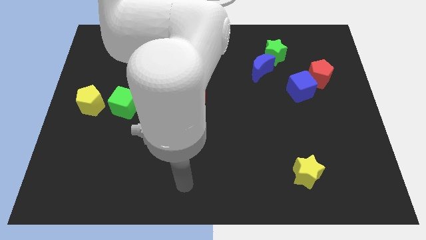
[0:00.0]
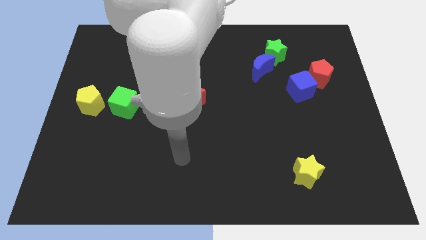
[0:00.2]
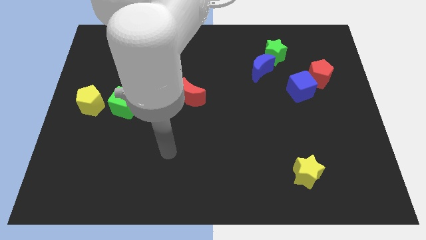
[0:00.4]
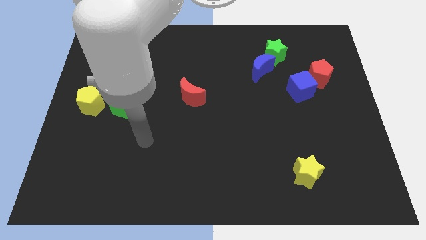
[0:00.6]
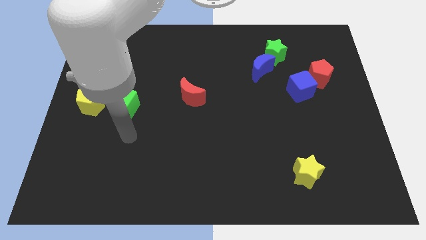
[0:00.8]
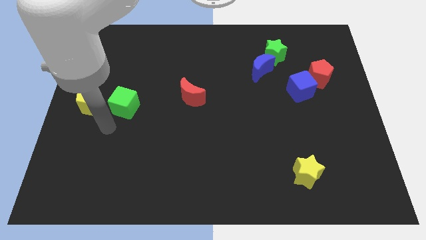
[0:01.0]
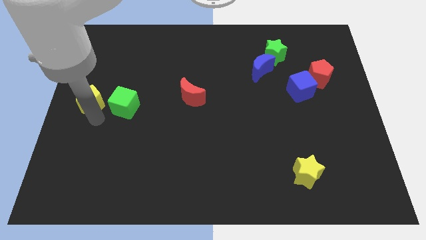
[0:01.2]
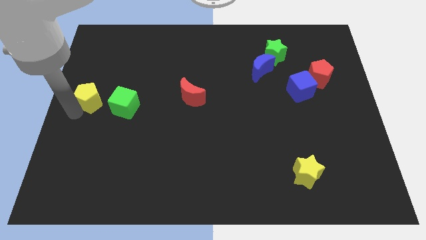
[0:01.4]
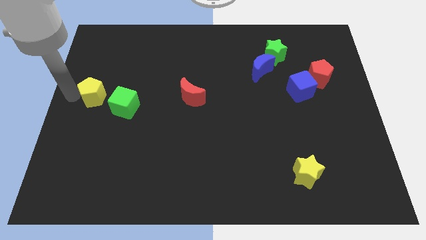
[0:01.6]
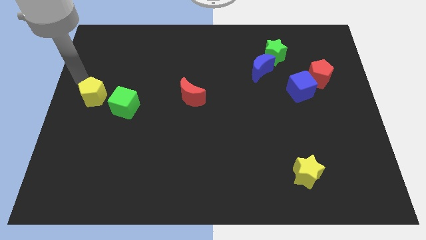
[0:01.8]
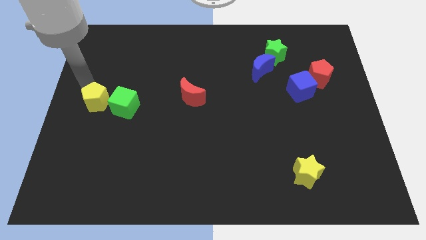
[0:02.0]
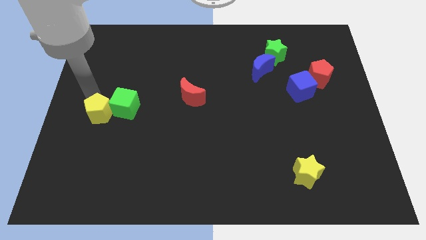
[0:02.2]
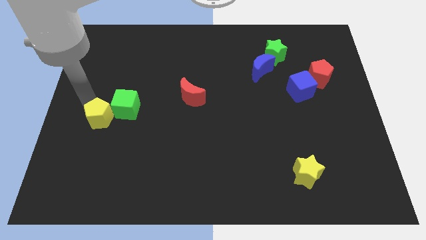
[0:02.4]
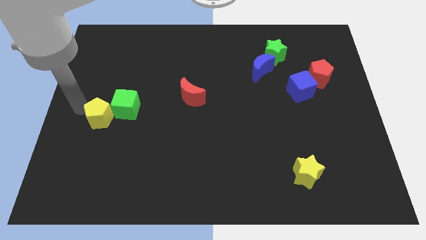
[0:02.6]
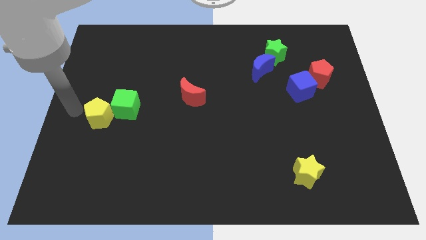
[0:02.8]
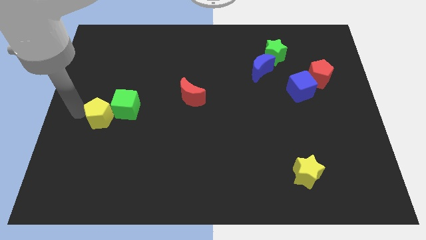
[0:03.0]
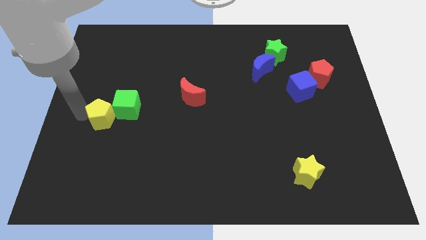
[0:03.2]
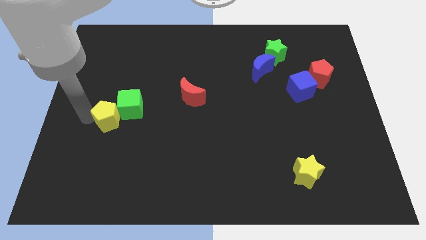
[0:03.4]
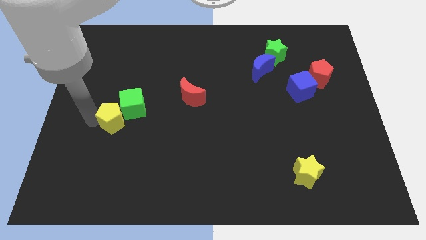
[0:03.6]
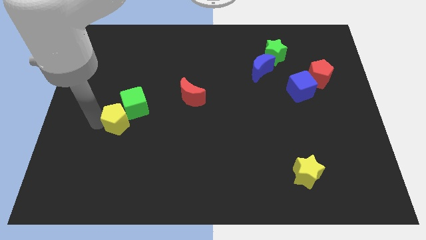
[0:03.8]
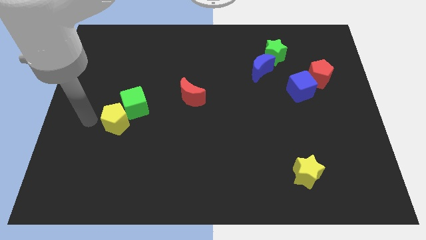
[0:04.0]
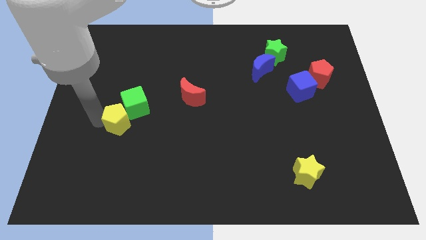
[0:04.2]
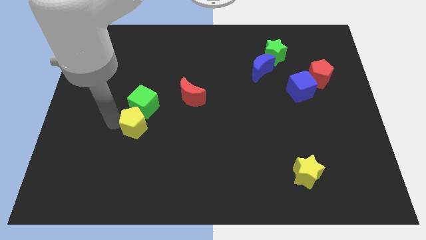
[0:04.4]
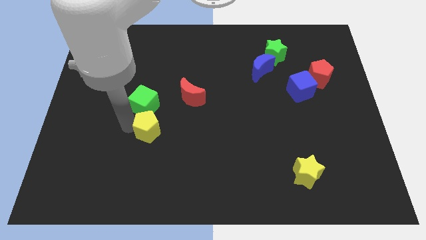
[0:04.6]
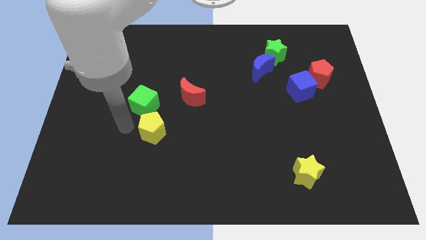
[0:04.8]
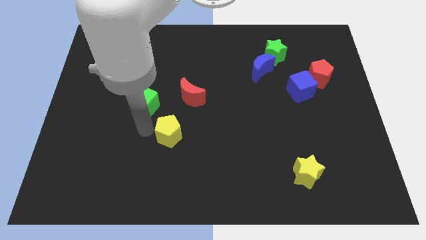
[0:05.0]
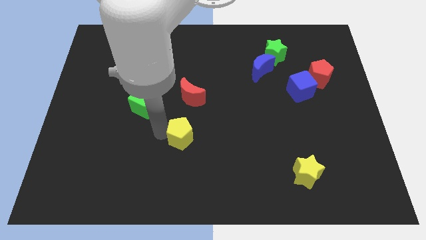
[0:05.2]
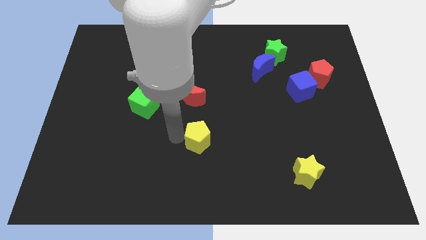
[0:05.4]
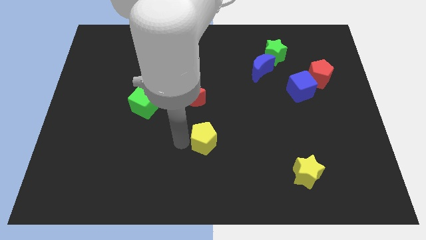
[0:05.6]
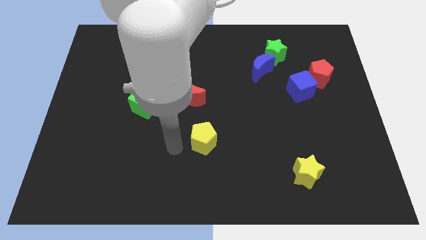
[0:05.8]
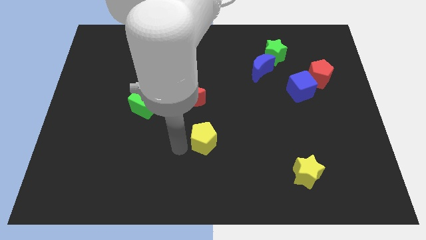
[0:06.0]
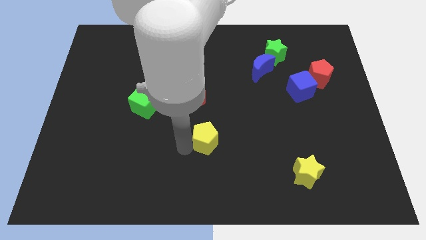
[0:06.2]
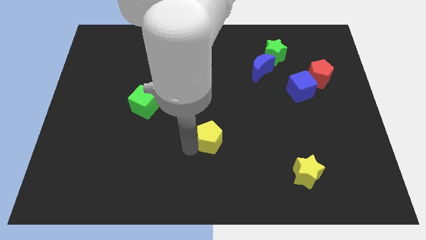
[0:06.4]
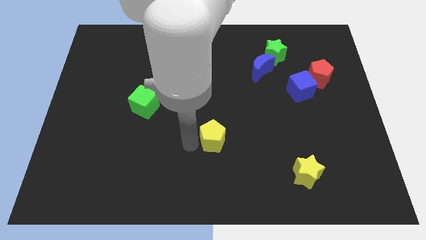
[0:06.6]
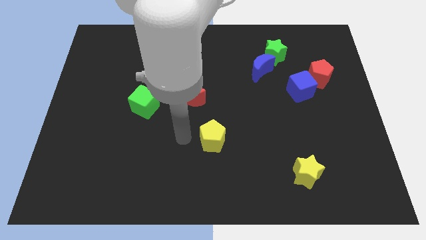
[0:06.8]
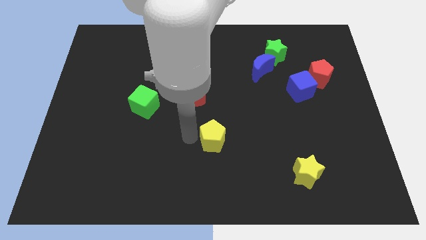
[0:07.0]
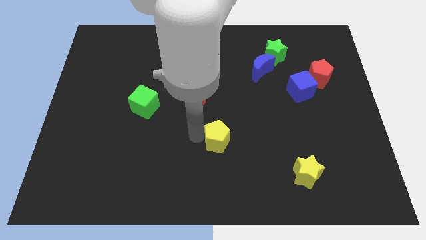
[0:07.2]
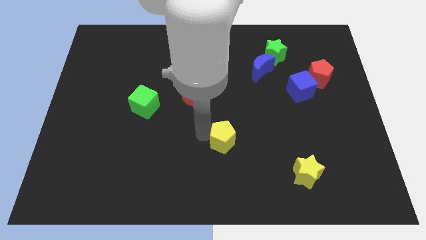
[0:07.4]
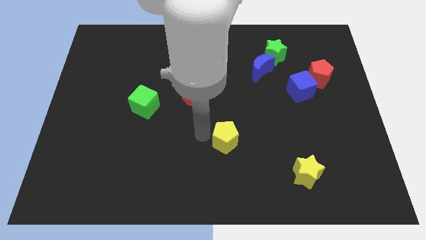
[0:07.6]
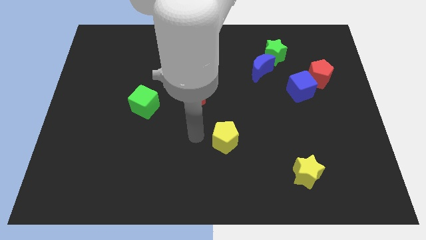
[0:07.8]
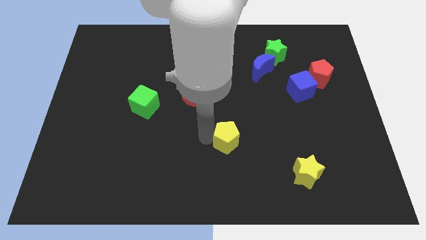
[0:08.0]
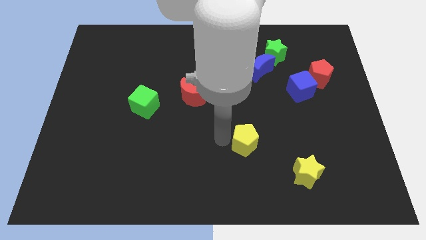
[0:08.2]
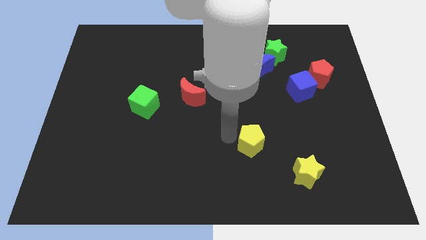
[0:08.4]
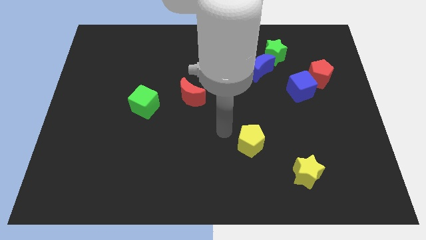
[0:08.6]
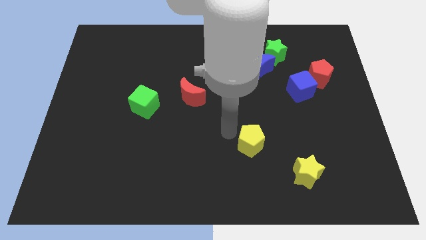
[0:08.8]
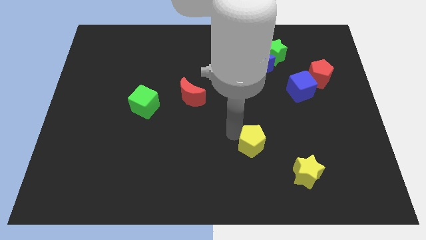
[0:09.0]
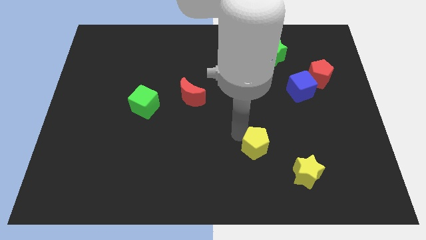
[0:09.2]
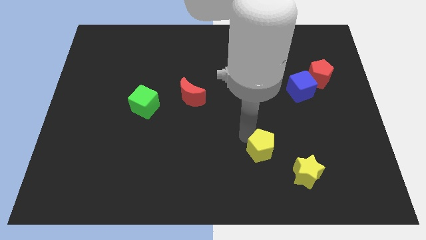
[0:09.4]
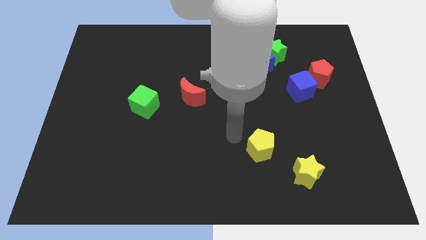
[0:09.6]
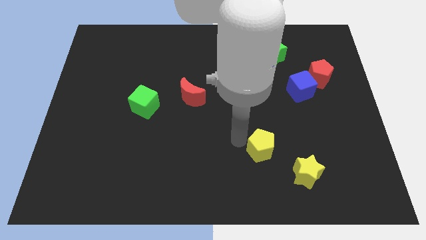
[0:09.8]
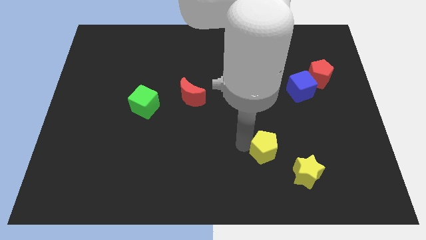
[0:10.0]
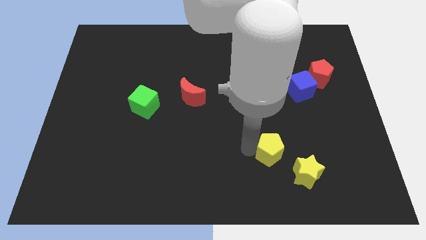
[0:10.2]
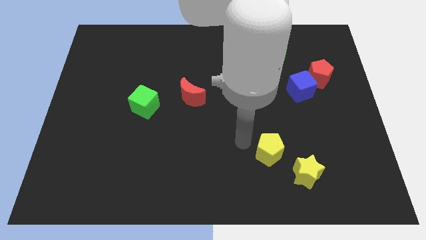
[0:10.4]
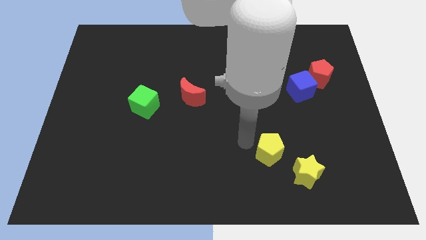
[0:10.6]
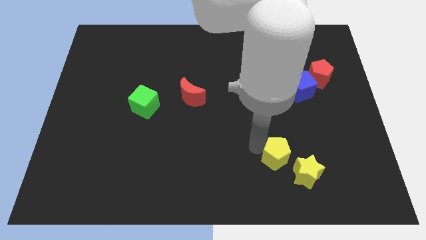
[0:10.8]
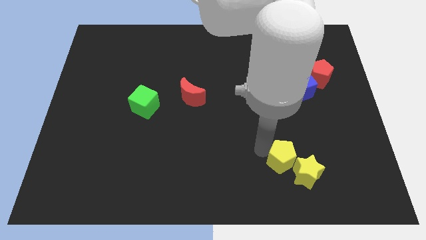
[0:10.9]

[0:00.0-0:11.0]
push the yellow pentagon towards the yellow star

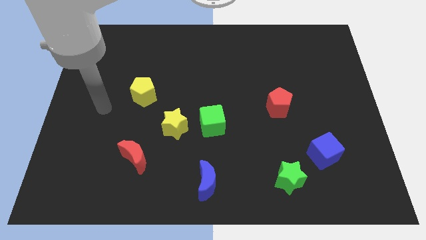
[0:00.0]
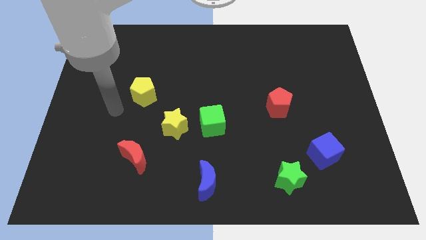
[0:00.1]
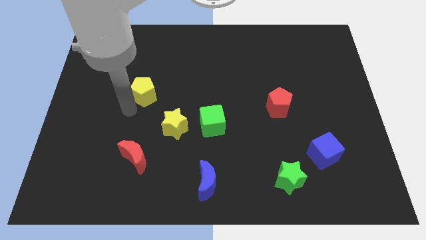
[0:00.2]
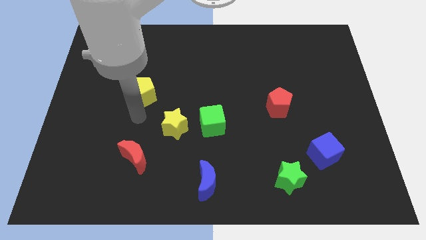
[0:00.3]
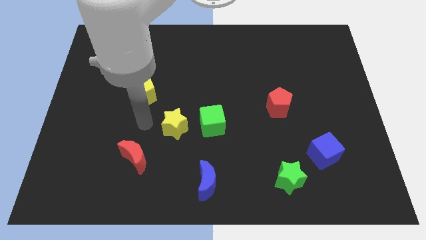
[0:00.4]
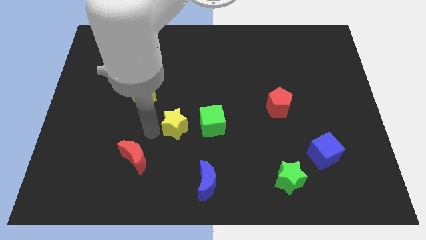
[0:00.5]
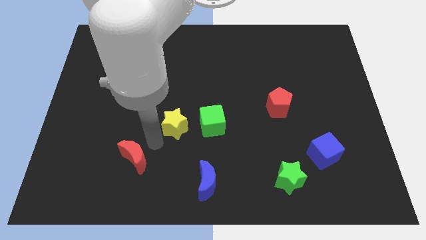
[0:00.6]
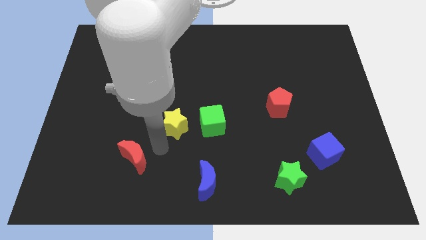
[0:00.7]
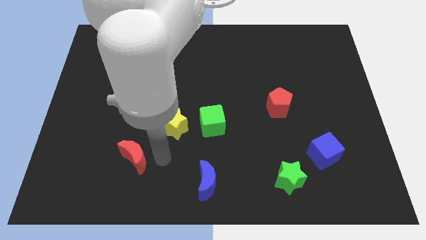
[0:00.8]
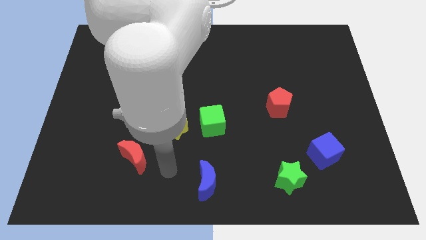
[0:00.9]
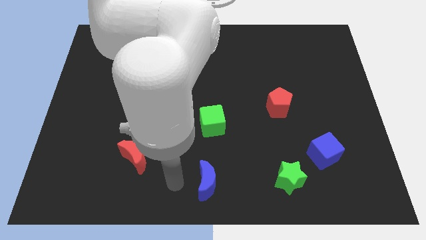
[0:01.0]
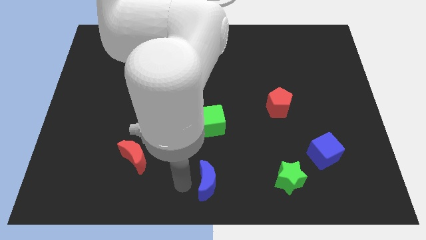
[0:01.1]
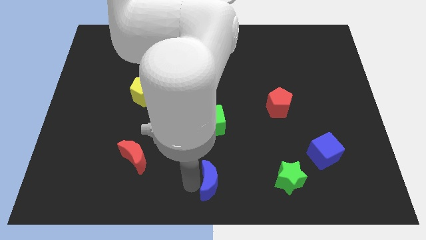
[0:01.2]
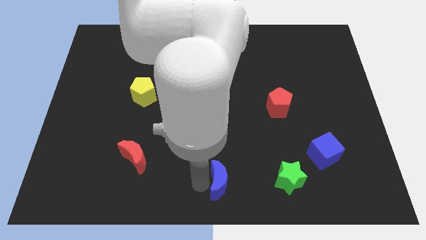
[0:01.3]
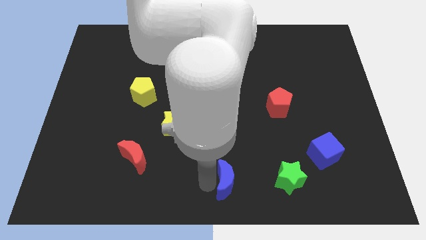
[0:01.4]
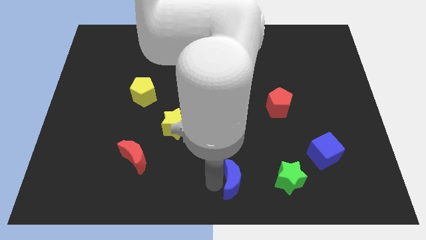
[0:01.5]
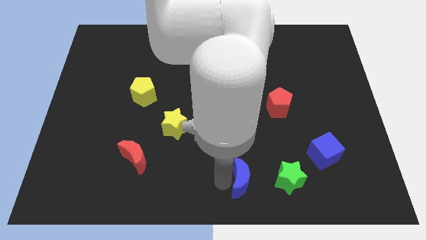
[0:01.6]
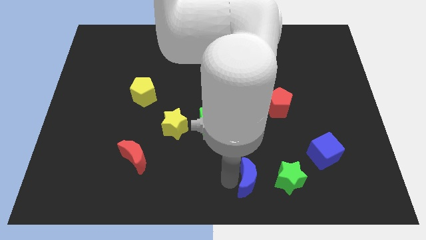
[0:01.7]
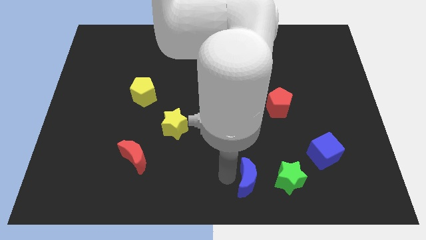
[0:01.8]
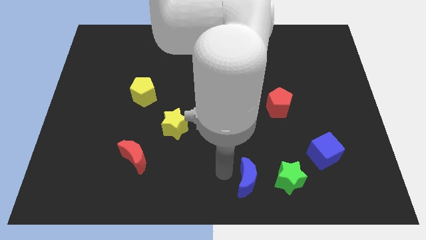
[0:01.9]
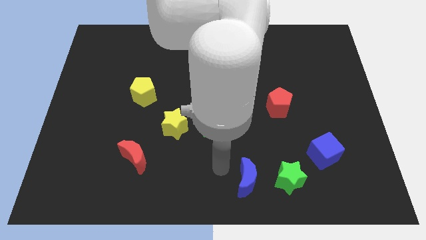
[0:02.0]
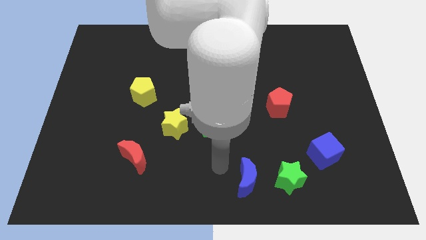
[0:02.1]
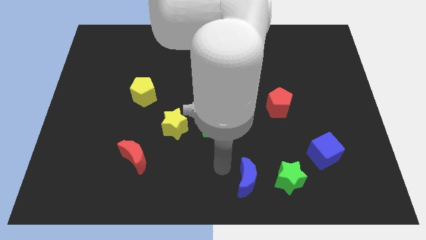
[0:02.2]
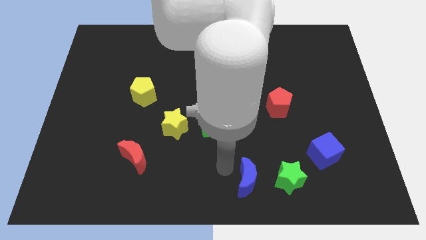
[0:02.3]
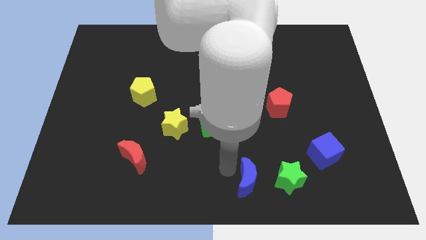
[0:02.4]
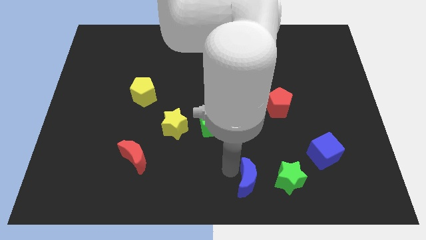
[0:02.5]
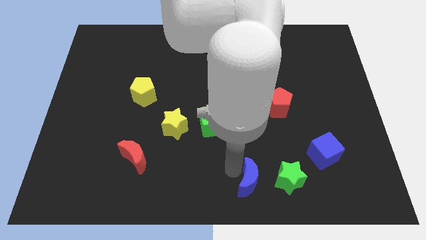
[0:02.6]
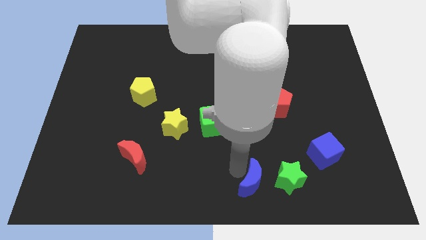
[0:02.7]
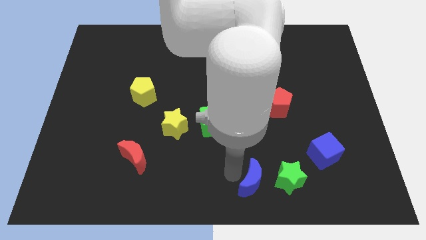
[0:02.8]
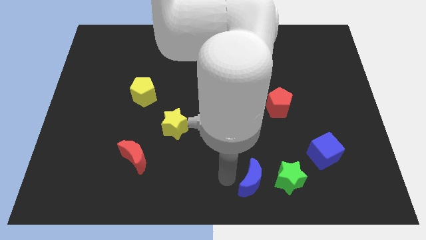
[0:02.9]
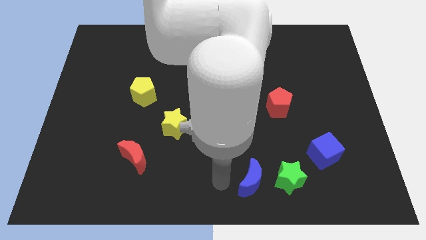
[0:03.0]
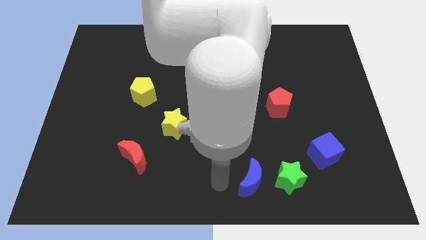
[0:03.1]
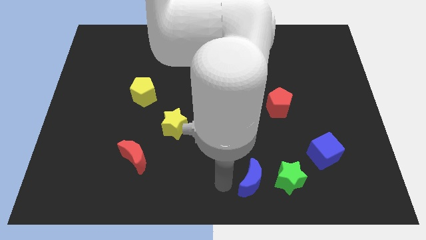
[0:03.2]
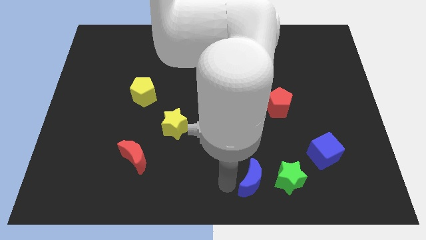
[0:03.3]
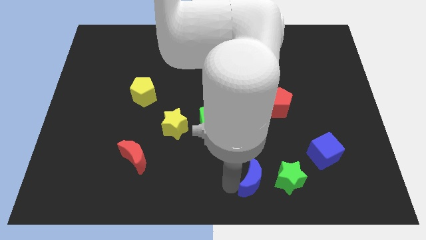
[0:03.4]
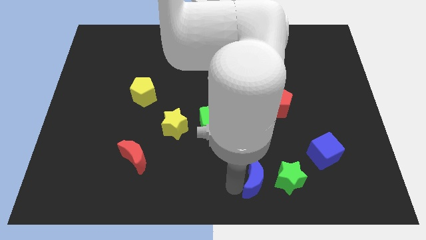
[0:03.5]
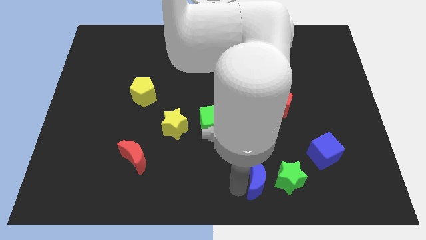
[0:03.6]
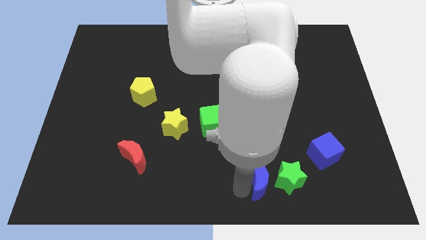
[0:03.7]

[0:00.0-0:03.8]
put the blue moon to the green star
